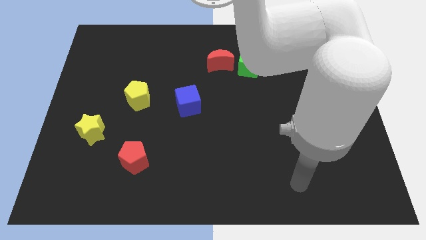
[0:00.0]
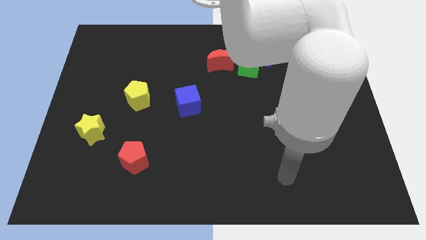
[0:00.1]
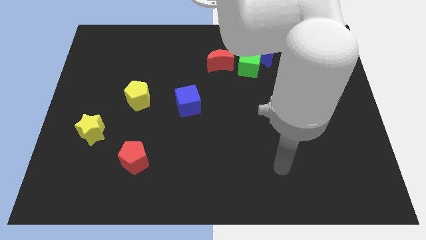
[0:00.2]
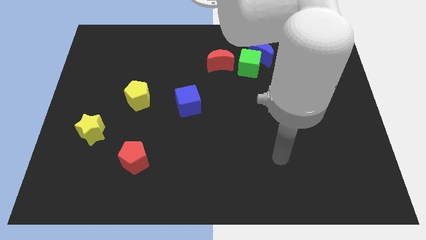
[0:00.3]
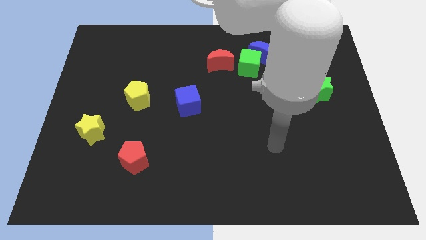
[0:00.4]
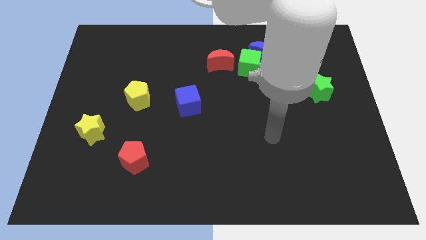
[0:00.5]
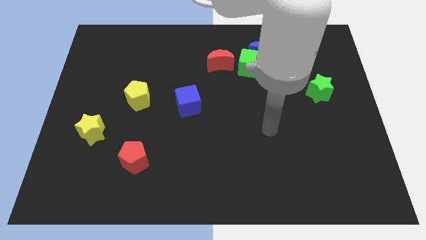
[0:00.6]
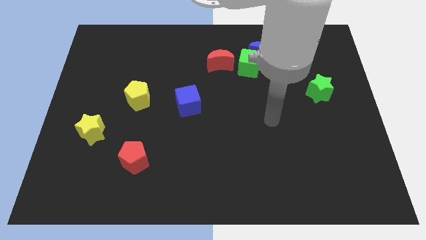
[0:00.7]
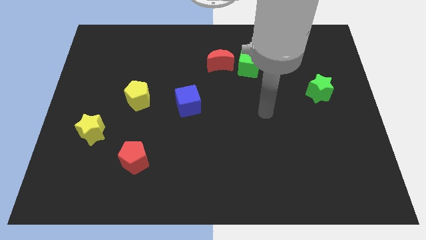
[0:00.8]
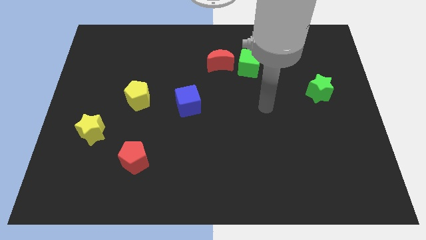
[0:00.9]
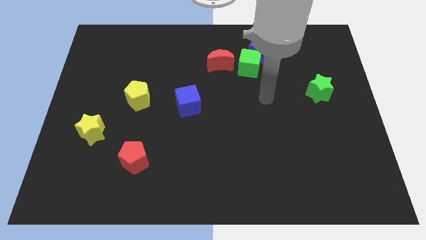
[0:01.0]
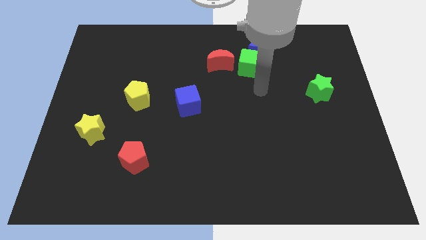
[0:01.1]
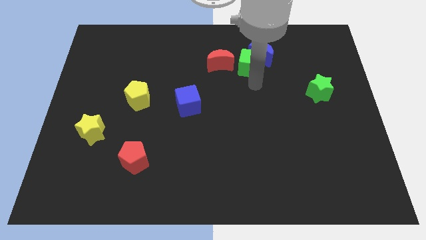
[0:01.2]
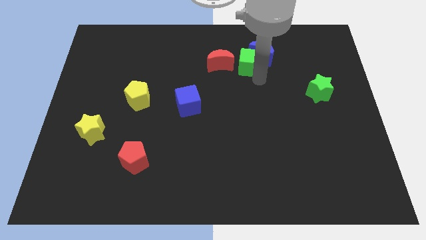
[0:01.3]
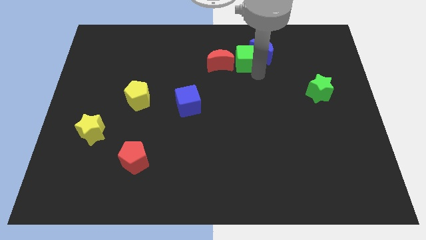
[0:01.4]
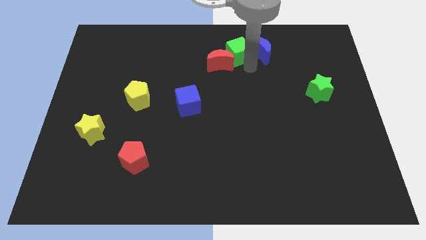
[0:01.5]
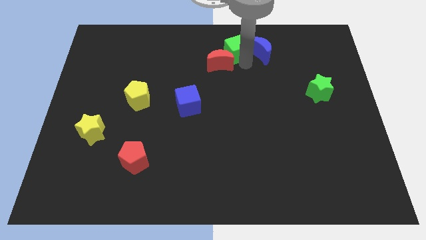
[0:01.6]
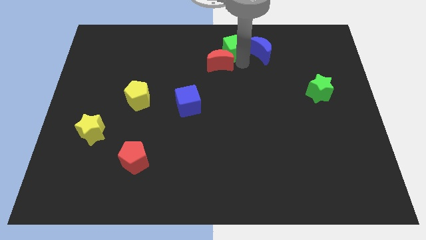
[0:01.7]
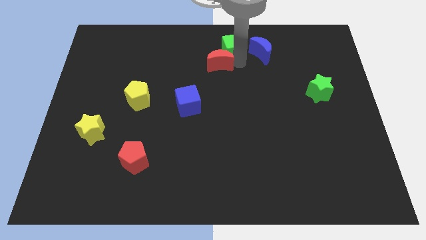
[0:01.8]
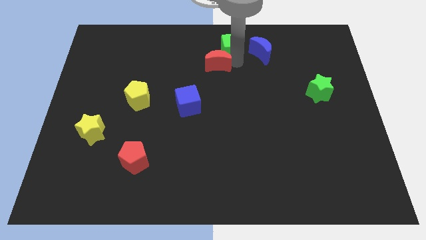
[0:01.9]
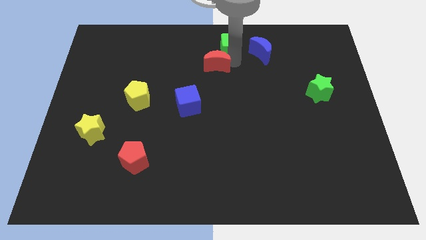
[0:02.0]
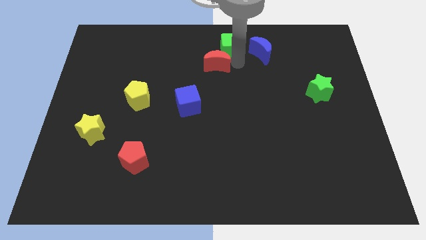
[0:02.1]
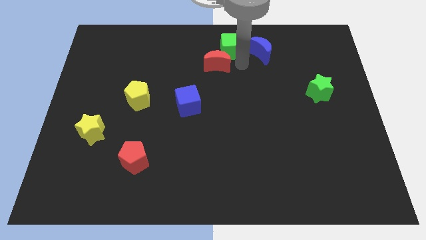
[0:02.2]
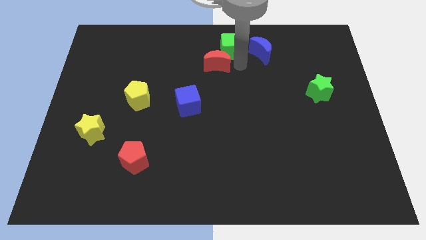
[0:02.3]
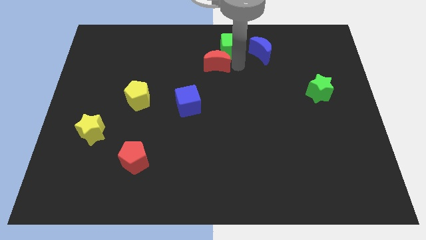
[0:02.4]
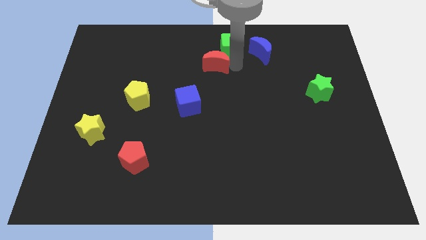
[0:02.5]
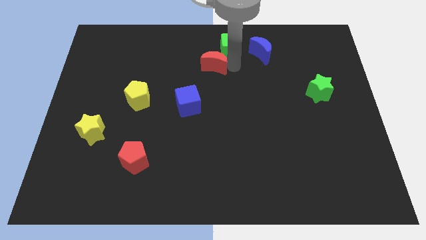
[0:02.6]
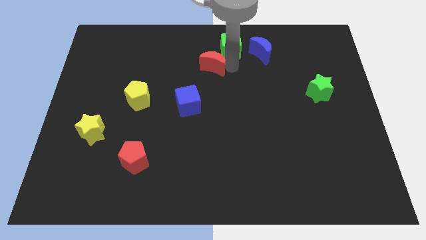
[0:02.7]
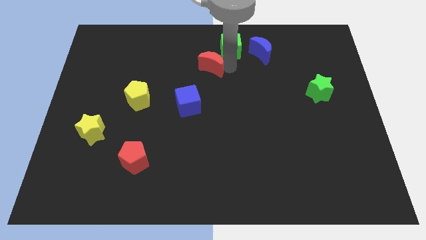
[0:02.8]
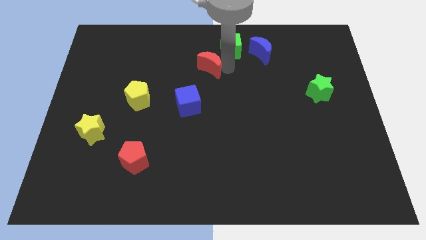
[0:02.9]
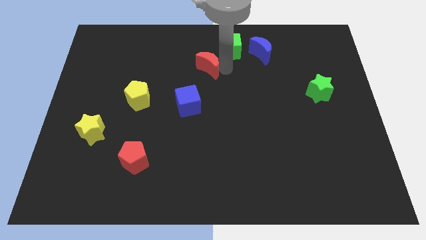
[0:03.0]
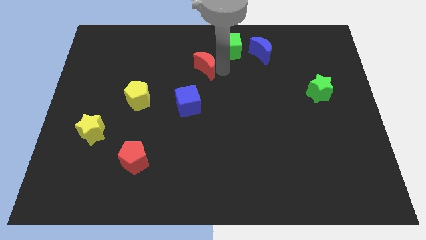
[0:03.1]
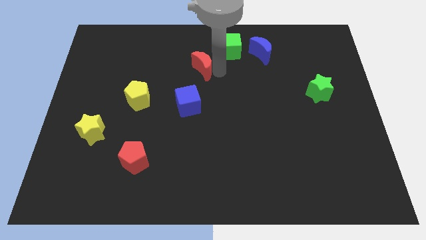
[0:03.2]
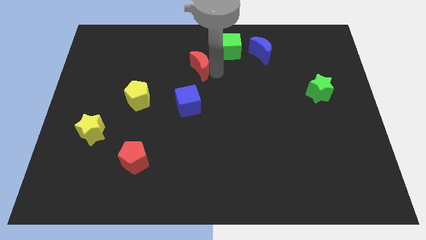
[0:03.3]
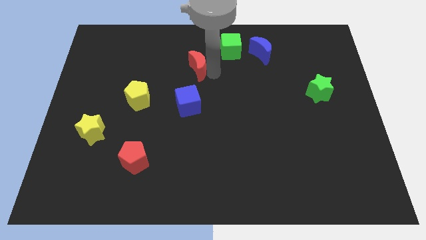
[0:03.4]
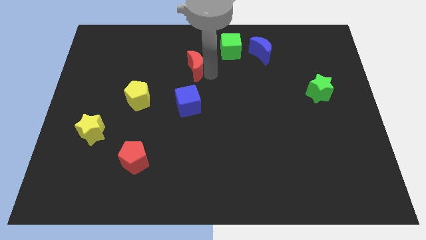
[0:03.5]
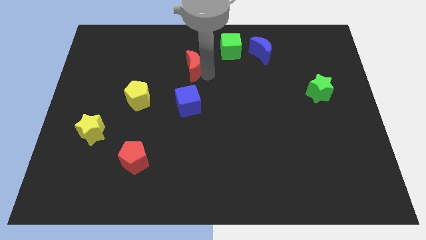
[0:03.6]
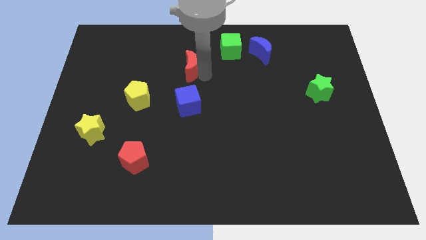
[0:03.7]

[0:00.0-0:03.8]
move the red moon left slightly

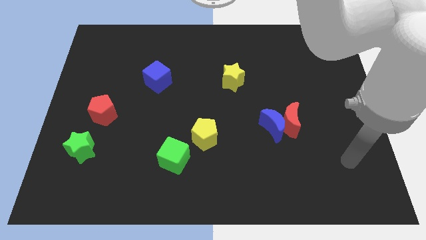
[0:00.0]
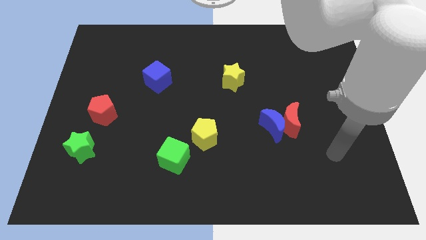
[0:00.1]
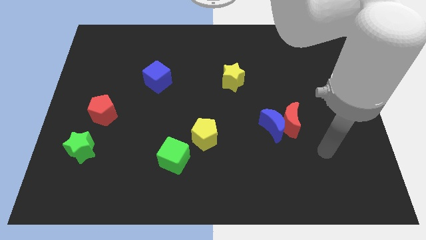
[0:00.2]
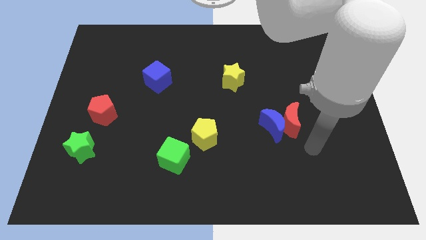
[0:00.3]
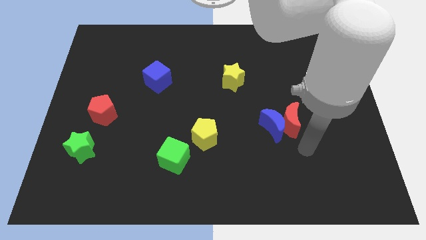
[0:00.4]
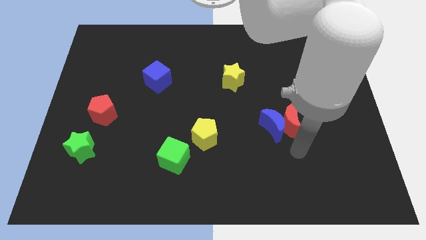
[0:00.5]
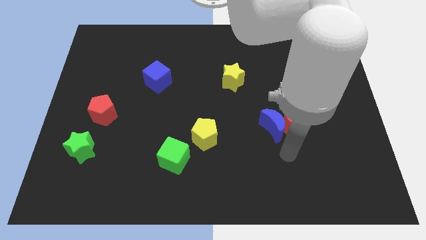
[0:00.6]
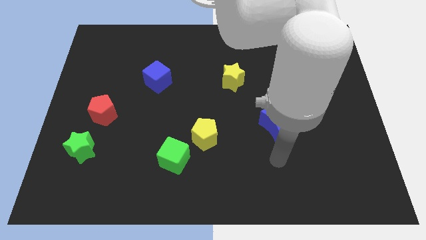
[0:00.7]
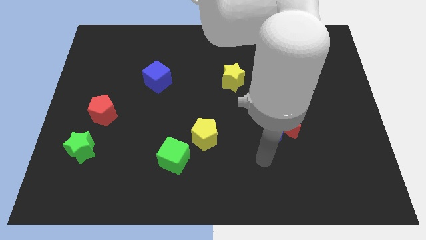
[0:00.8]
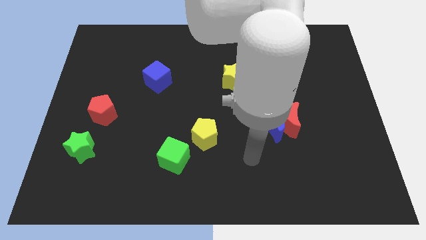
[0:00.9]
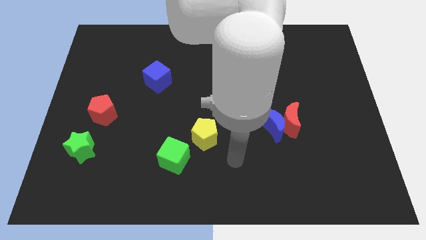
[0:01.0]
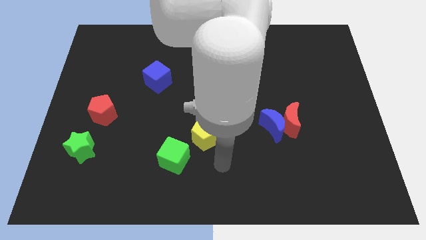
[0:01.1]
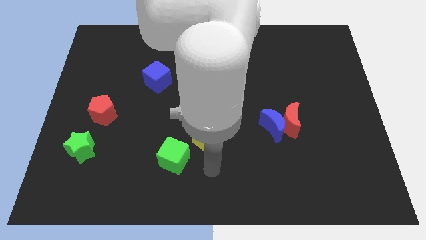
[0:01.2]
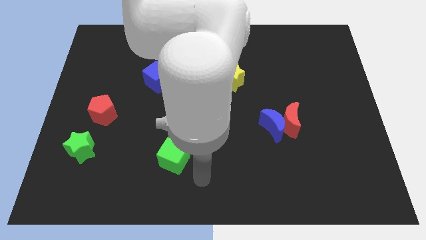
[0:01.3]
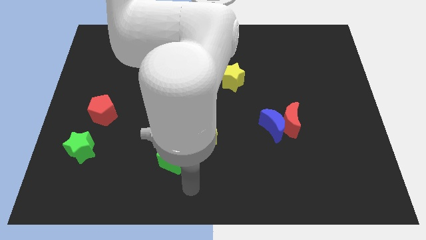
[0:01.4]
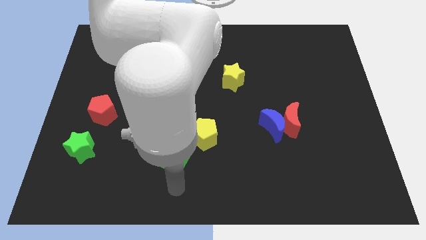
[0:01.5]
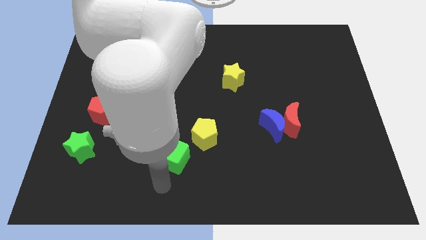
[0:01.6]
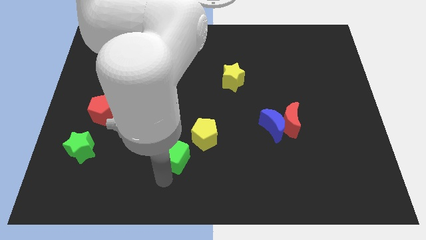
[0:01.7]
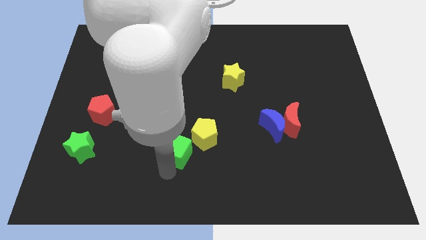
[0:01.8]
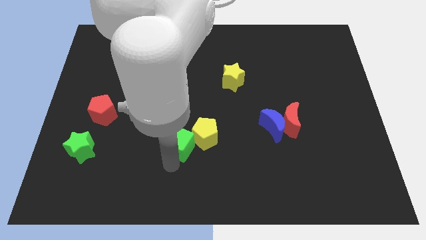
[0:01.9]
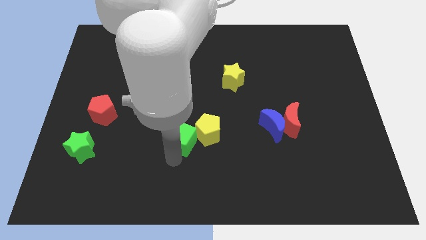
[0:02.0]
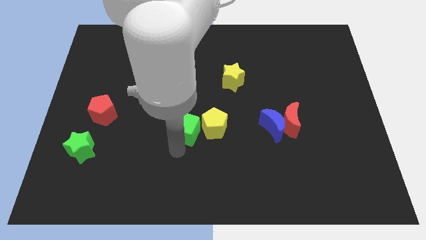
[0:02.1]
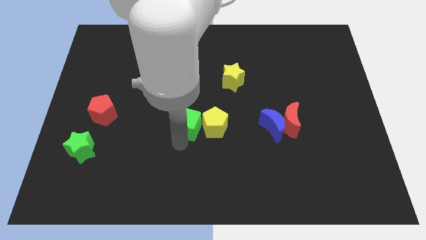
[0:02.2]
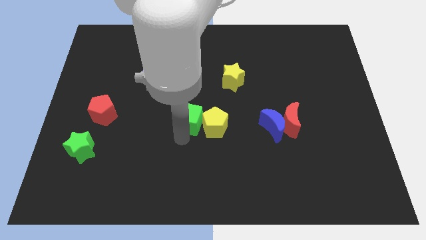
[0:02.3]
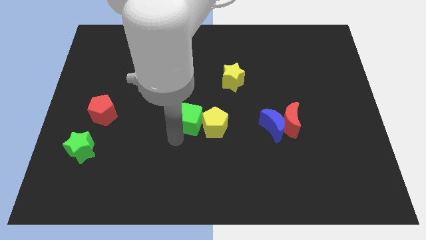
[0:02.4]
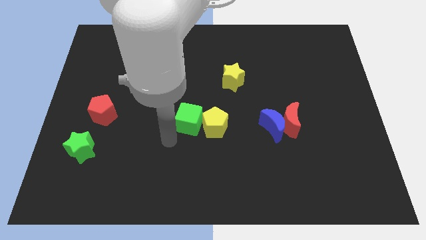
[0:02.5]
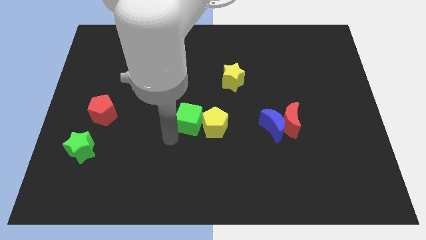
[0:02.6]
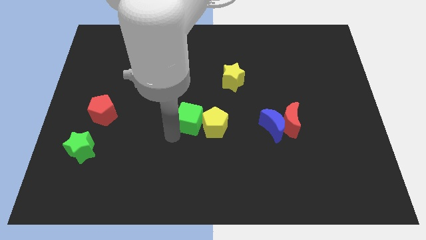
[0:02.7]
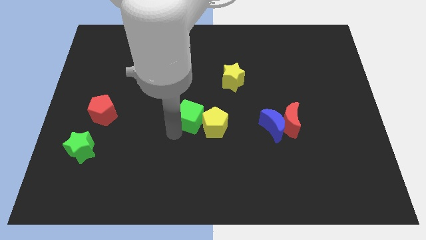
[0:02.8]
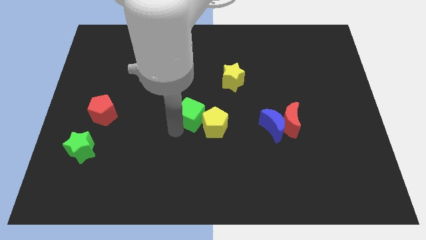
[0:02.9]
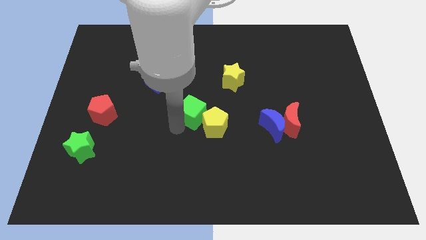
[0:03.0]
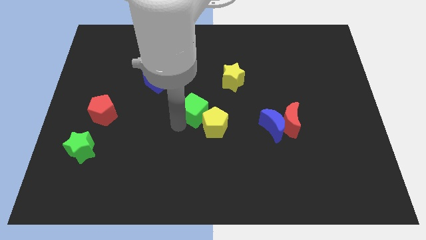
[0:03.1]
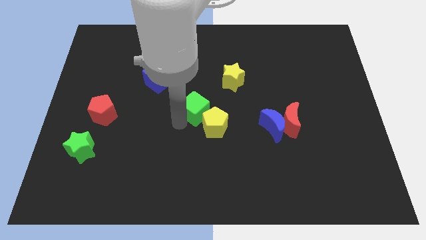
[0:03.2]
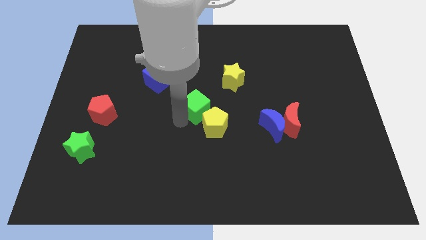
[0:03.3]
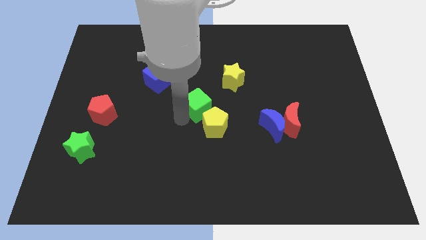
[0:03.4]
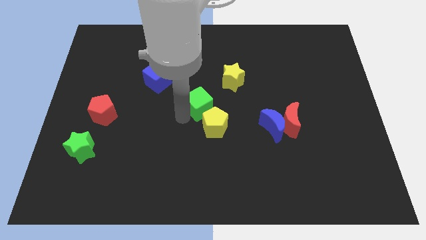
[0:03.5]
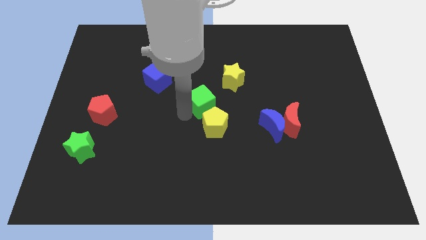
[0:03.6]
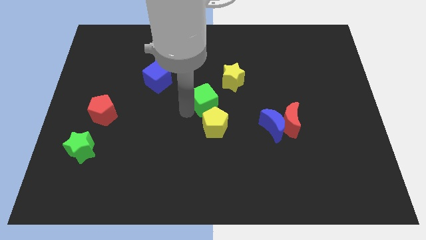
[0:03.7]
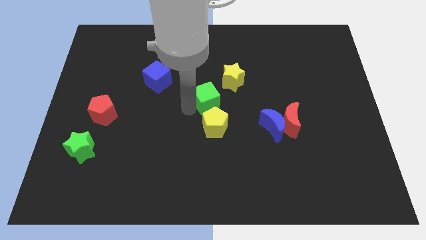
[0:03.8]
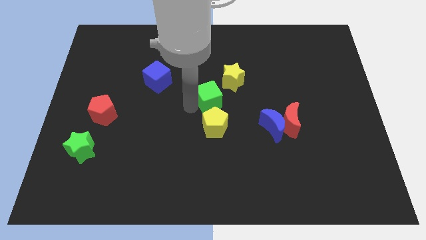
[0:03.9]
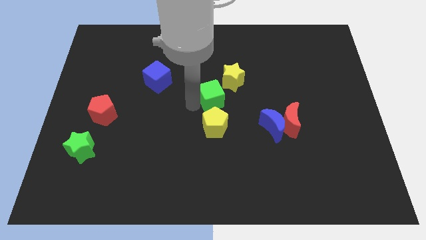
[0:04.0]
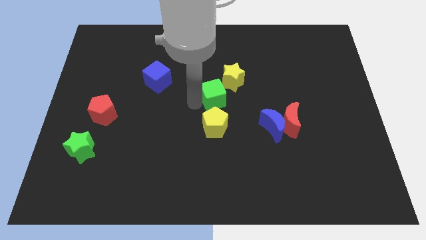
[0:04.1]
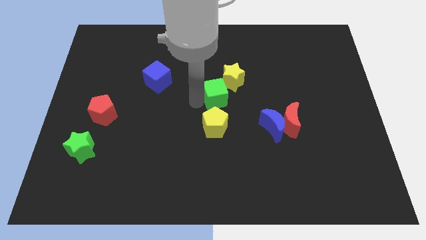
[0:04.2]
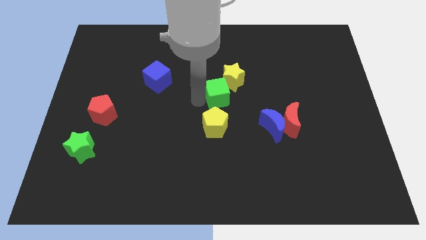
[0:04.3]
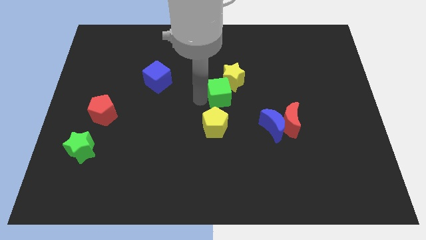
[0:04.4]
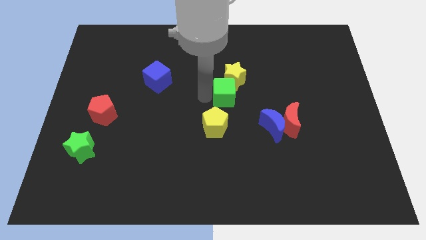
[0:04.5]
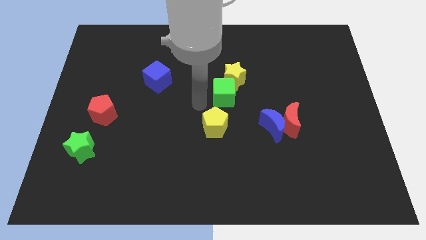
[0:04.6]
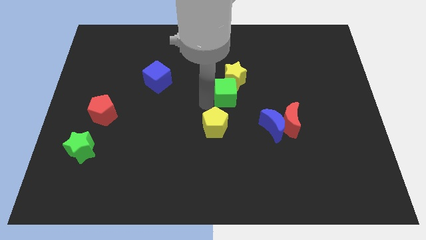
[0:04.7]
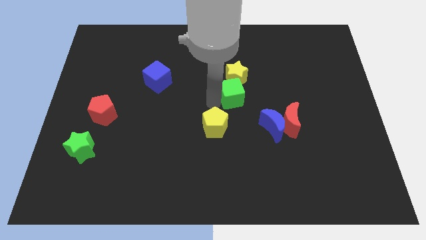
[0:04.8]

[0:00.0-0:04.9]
push the green cube up and to the right
